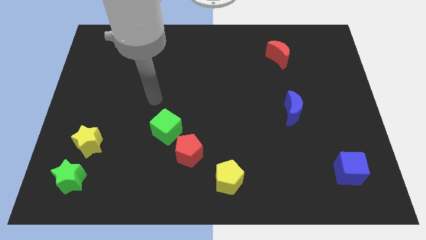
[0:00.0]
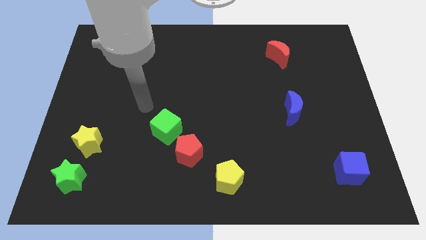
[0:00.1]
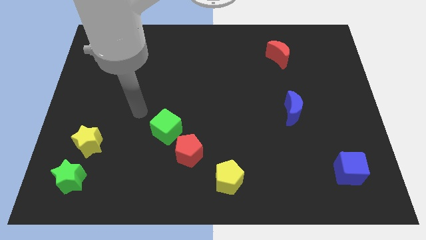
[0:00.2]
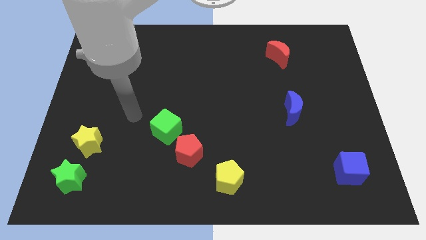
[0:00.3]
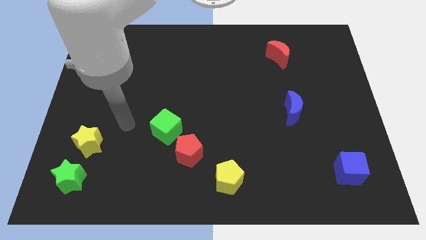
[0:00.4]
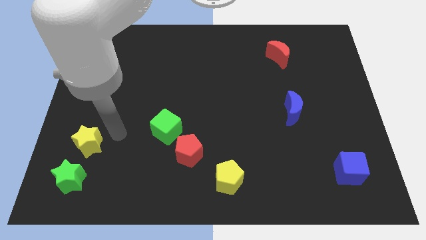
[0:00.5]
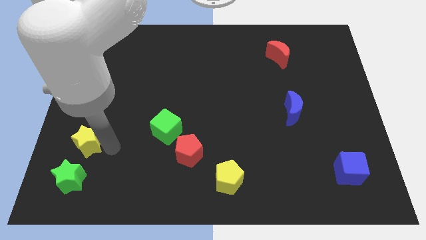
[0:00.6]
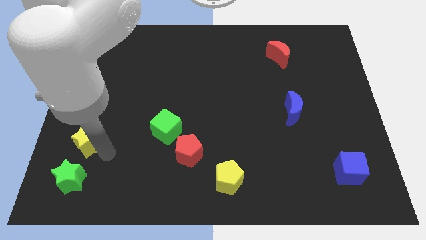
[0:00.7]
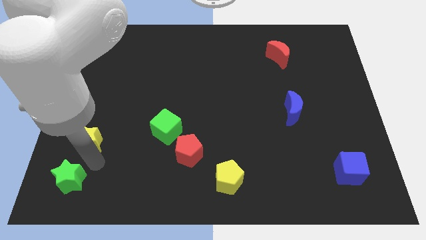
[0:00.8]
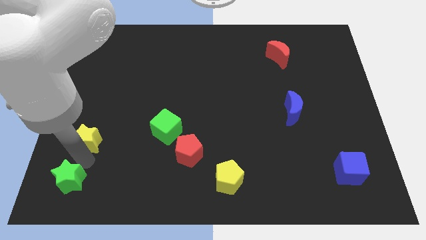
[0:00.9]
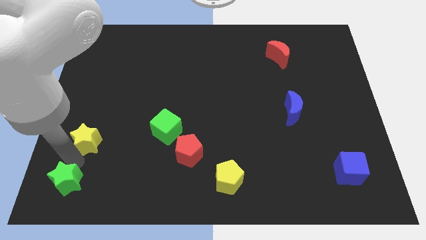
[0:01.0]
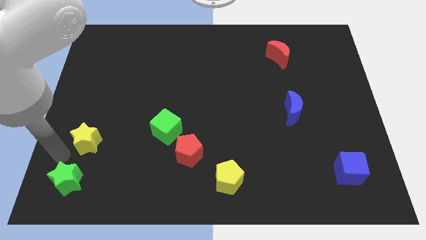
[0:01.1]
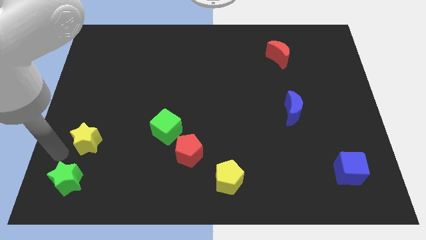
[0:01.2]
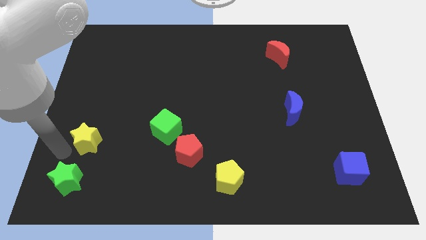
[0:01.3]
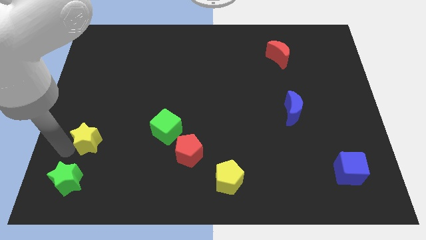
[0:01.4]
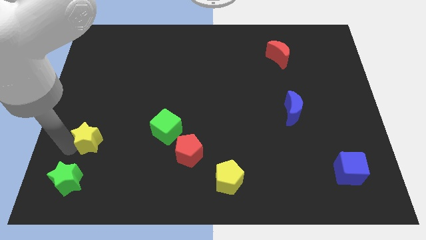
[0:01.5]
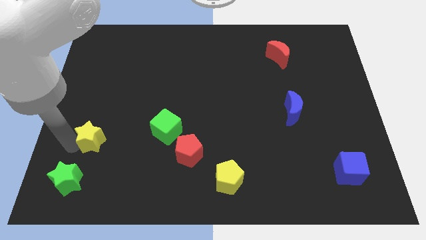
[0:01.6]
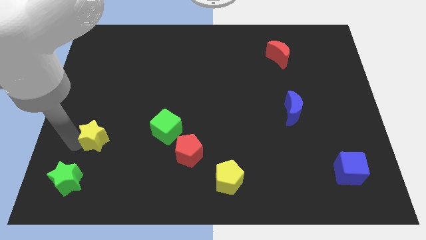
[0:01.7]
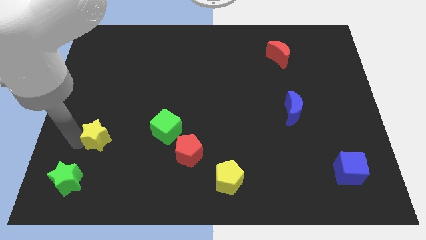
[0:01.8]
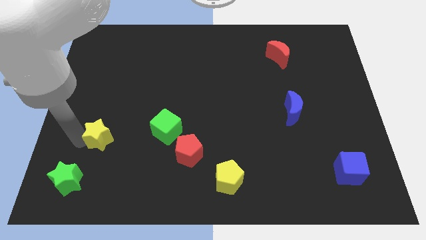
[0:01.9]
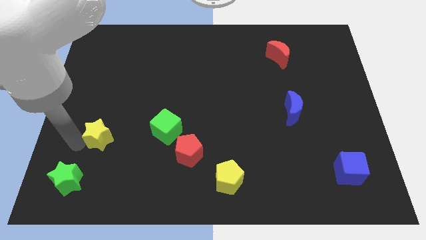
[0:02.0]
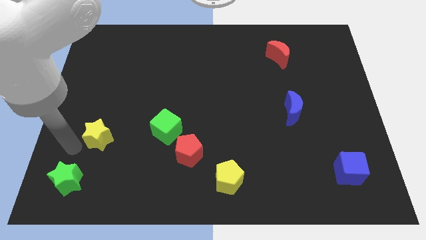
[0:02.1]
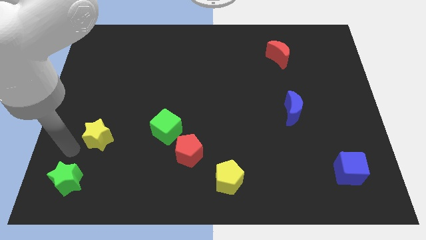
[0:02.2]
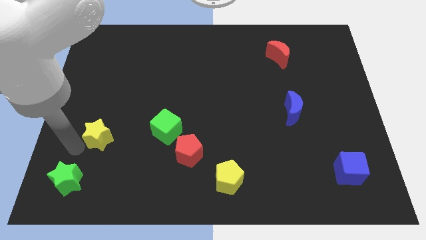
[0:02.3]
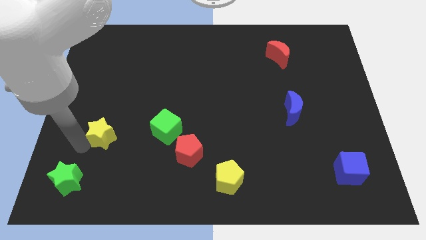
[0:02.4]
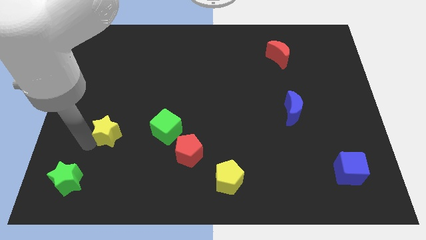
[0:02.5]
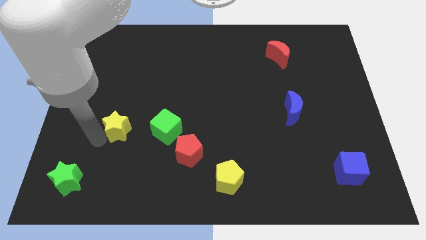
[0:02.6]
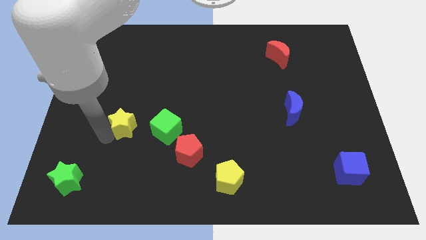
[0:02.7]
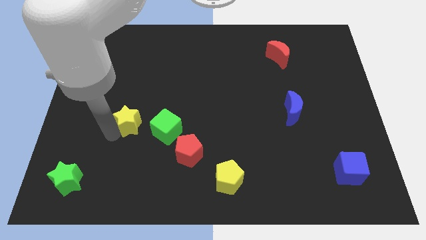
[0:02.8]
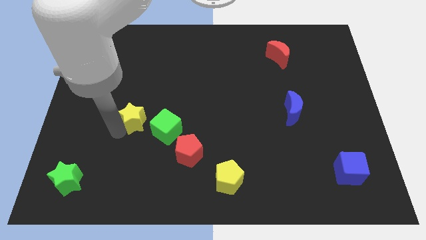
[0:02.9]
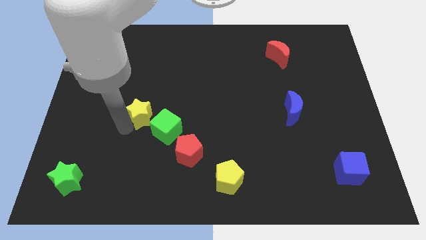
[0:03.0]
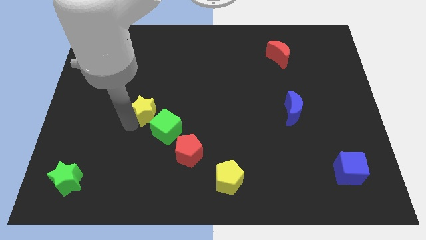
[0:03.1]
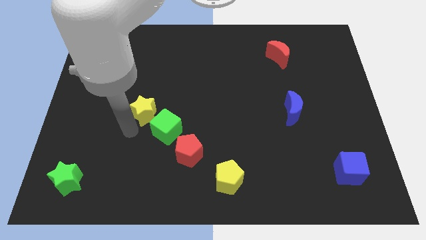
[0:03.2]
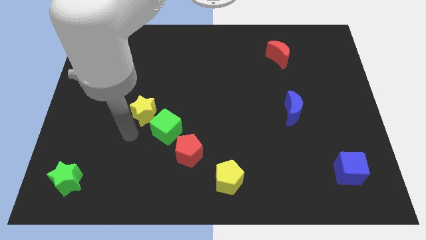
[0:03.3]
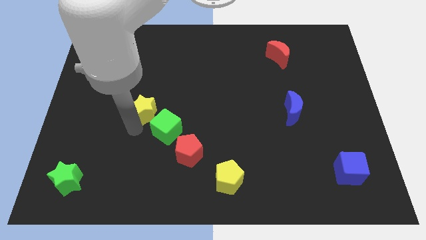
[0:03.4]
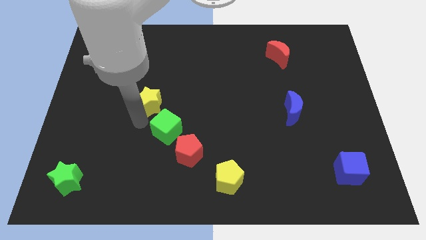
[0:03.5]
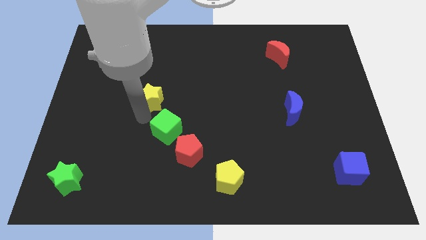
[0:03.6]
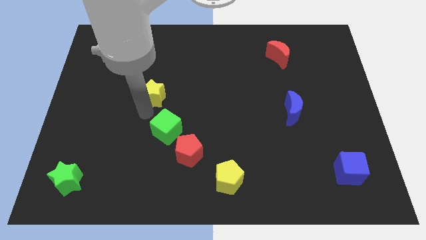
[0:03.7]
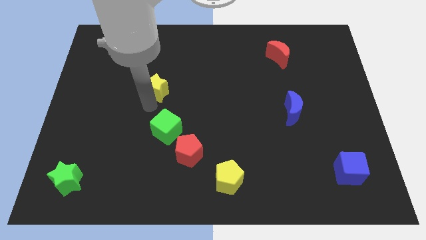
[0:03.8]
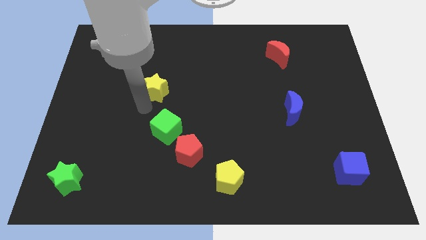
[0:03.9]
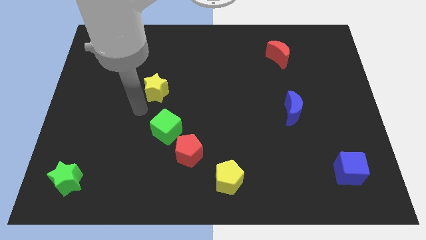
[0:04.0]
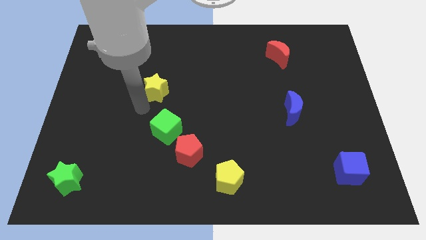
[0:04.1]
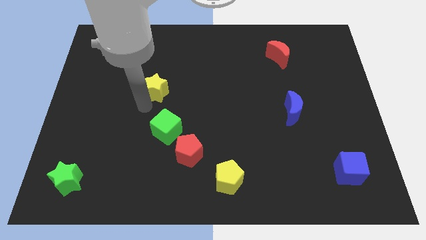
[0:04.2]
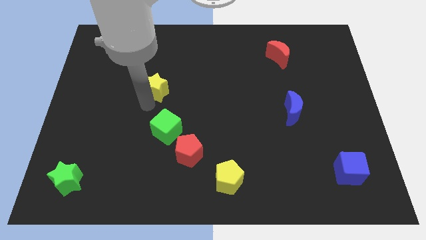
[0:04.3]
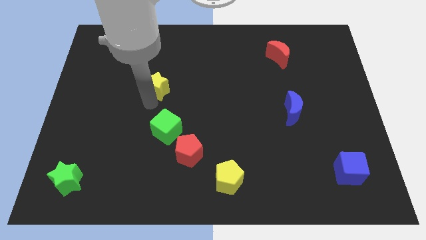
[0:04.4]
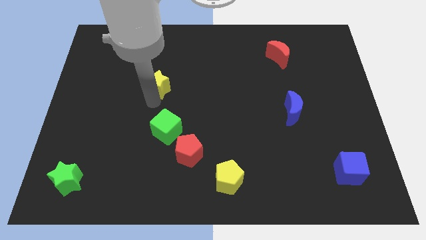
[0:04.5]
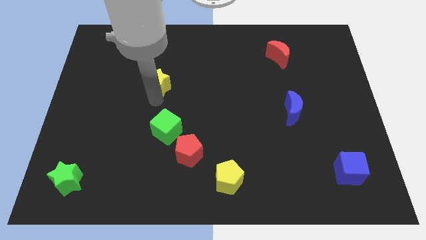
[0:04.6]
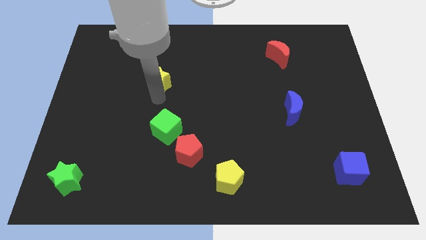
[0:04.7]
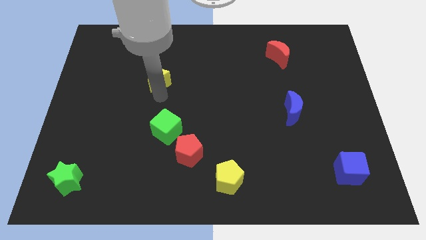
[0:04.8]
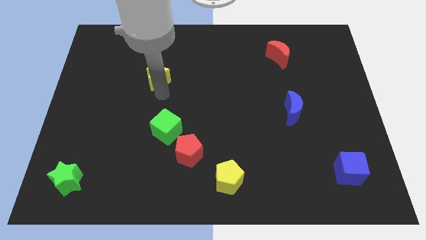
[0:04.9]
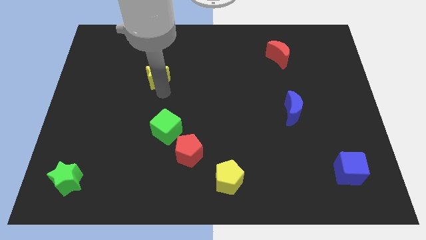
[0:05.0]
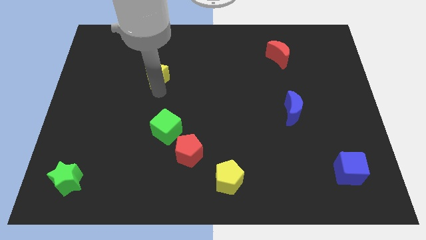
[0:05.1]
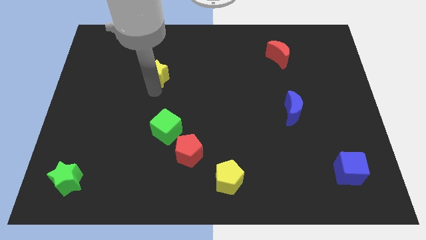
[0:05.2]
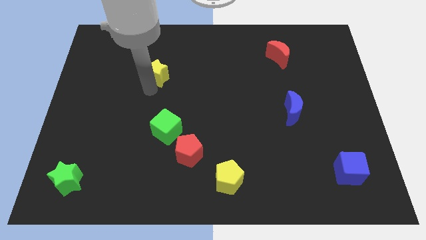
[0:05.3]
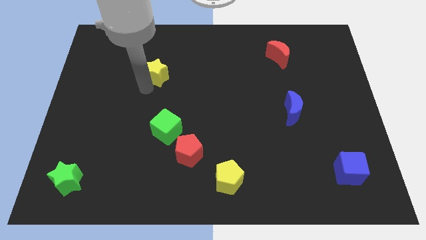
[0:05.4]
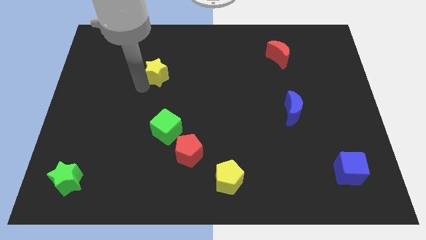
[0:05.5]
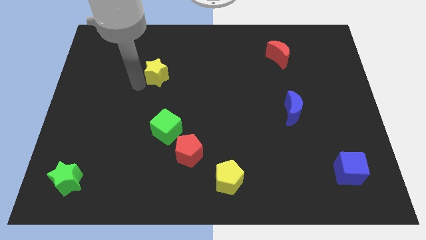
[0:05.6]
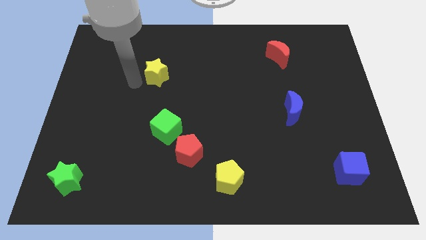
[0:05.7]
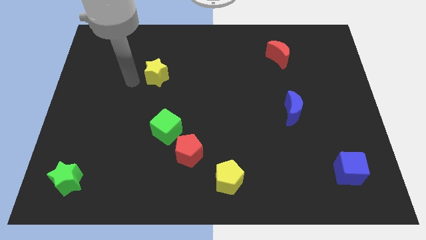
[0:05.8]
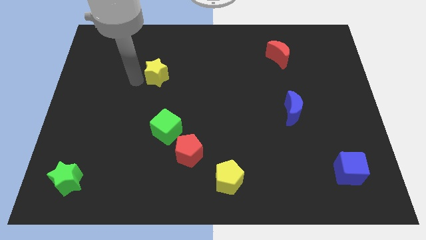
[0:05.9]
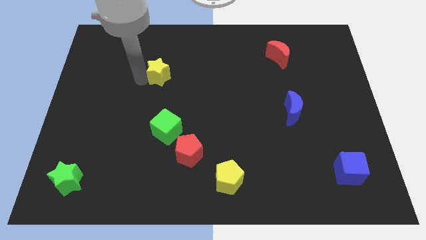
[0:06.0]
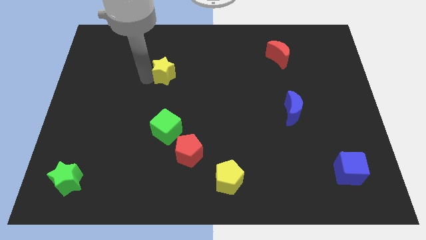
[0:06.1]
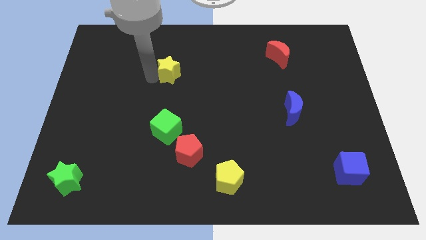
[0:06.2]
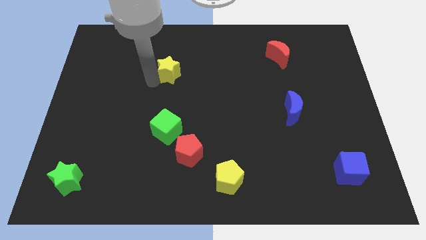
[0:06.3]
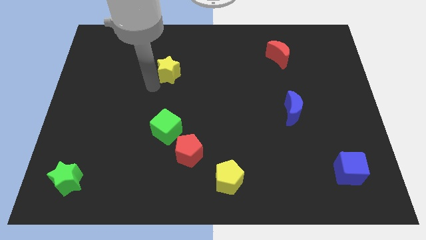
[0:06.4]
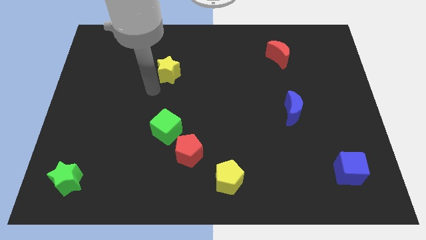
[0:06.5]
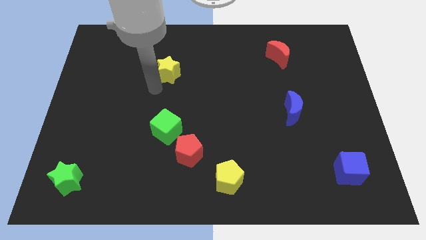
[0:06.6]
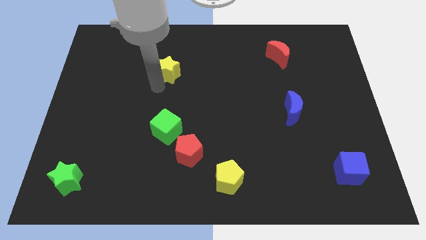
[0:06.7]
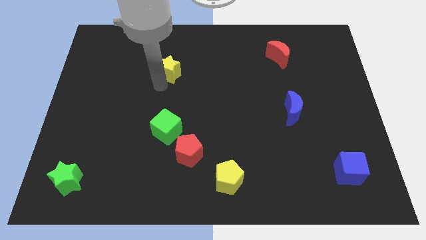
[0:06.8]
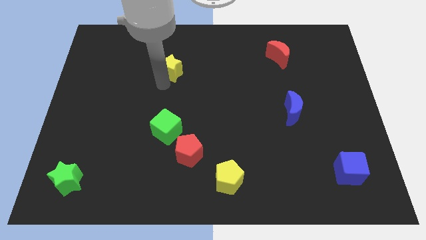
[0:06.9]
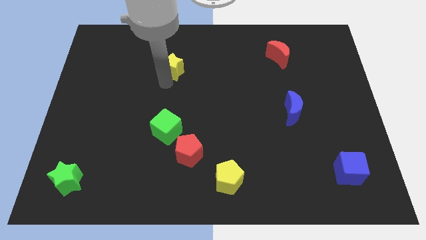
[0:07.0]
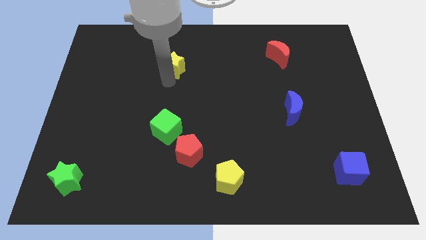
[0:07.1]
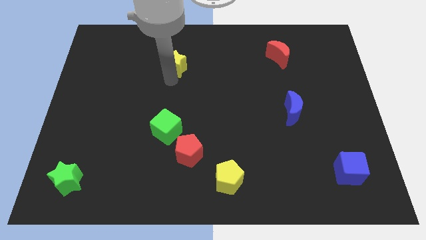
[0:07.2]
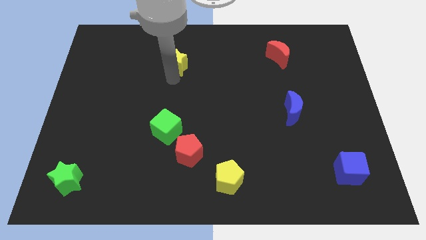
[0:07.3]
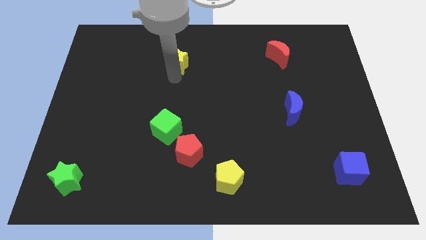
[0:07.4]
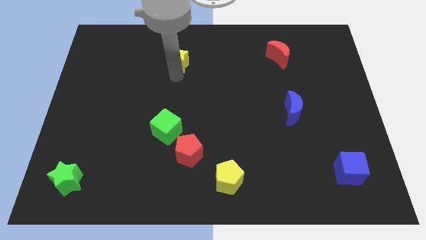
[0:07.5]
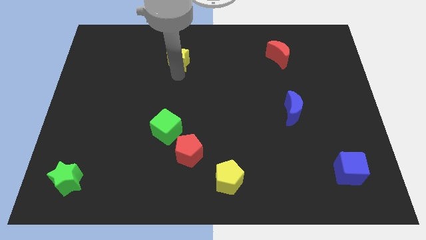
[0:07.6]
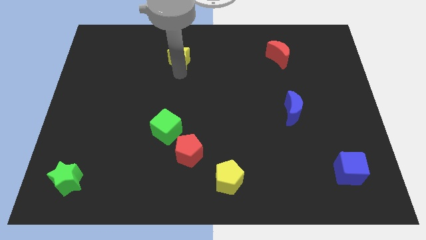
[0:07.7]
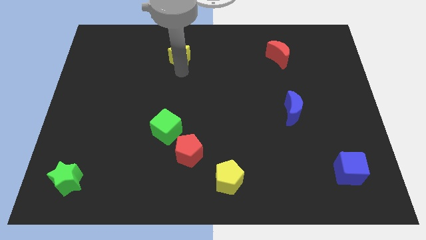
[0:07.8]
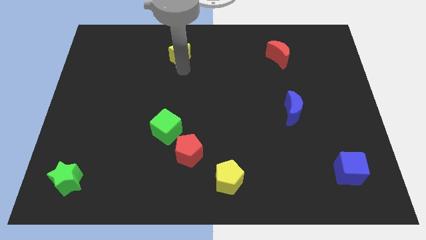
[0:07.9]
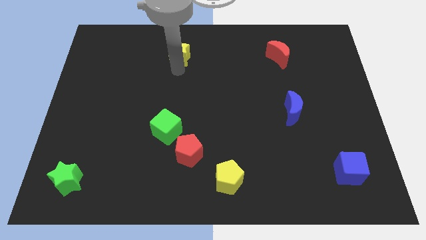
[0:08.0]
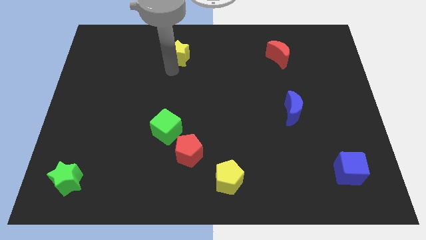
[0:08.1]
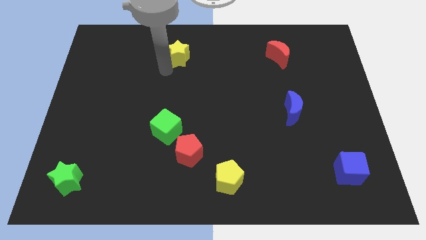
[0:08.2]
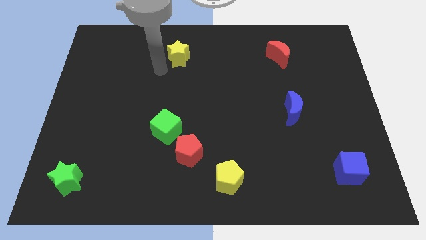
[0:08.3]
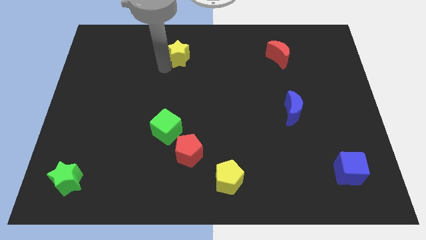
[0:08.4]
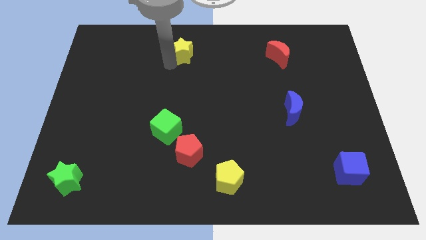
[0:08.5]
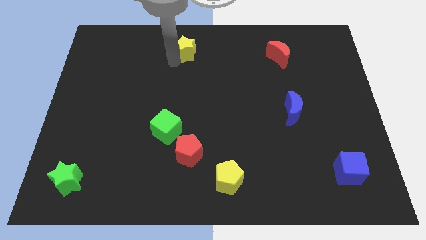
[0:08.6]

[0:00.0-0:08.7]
put the yellow star to the top
